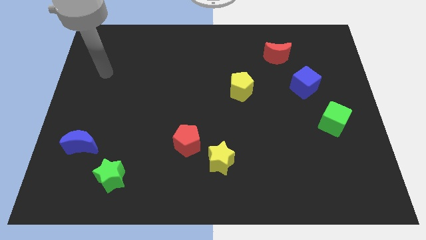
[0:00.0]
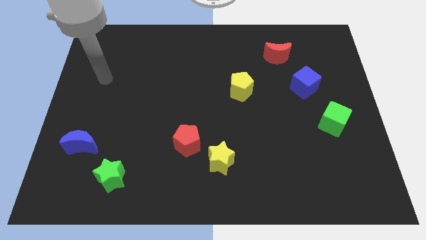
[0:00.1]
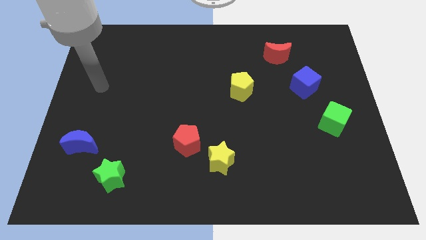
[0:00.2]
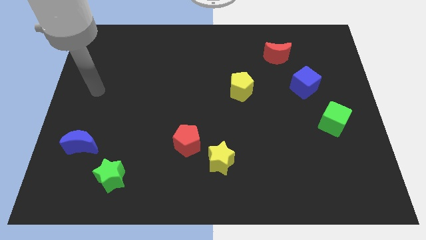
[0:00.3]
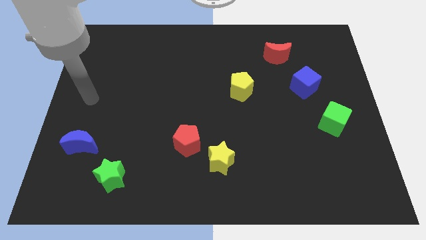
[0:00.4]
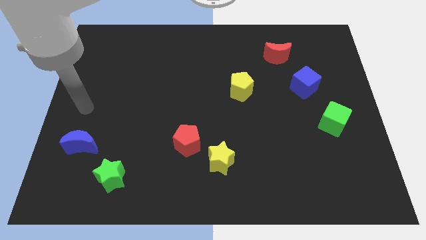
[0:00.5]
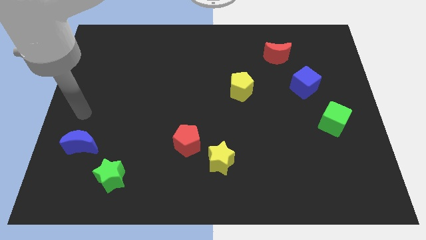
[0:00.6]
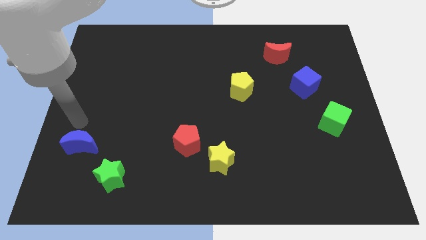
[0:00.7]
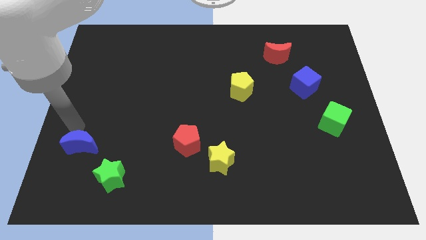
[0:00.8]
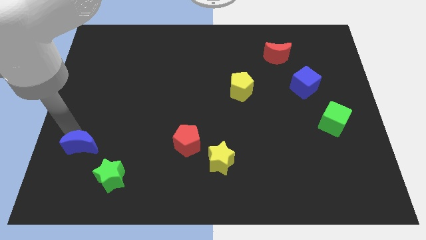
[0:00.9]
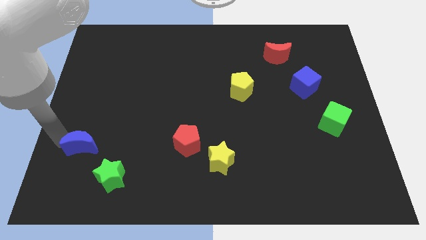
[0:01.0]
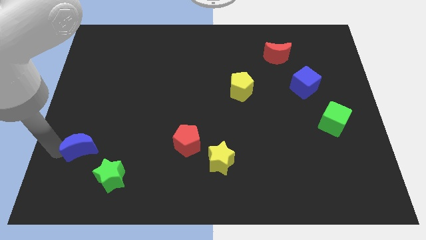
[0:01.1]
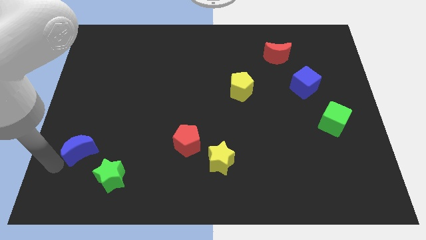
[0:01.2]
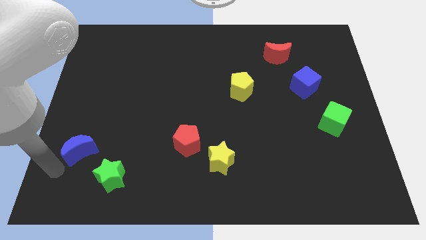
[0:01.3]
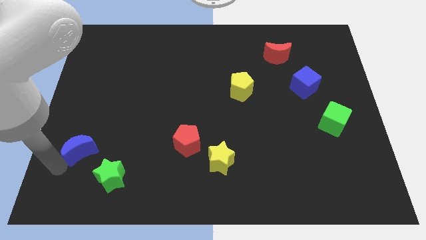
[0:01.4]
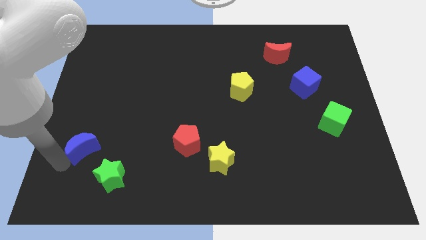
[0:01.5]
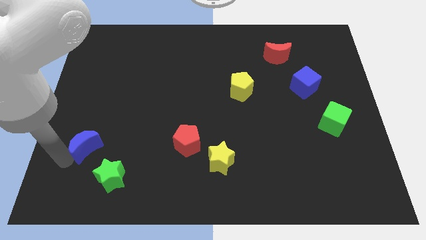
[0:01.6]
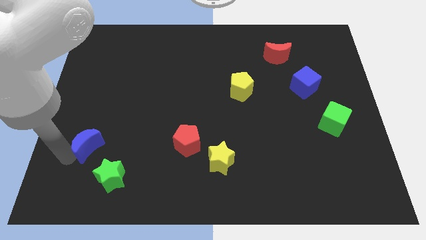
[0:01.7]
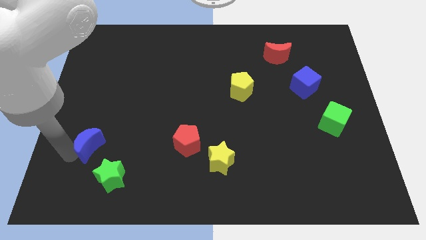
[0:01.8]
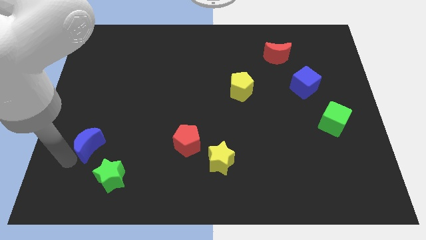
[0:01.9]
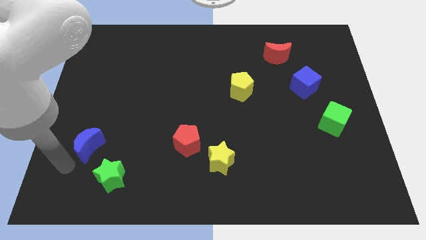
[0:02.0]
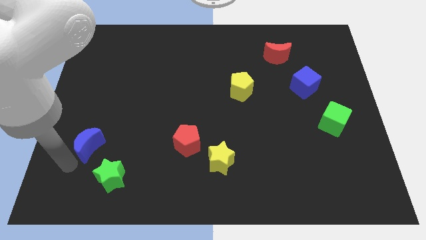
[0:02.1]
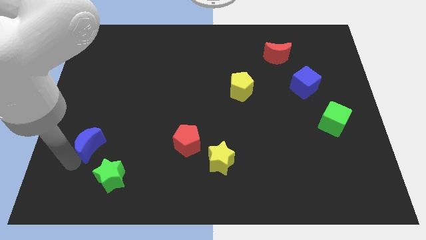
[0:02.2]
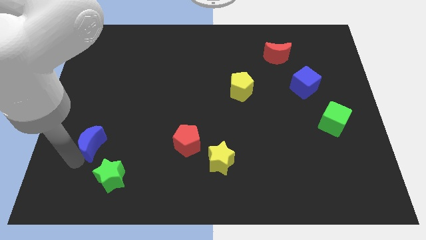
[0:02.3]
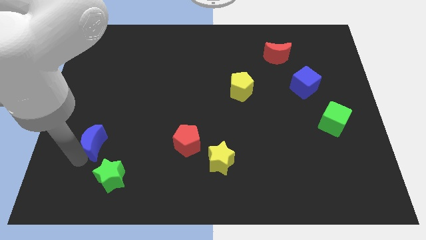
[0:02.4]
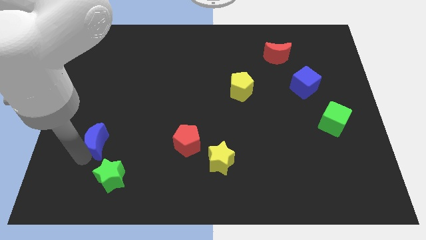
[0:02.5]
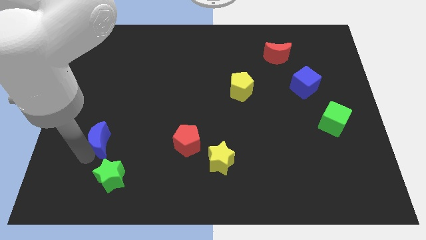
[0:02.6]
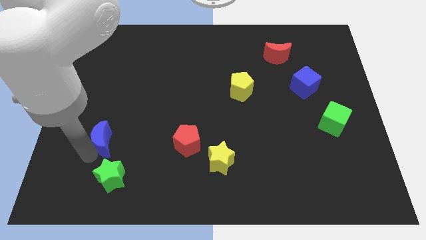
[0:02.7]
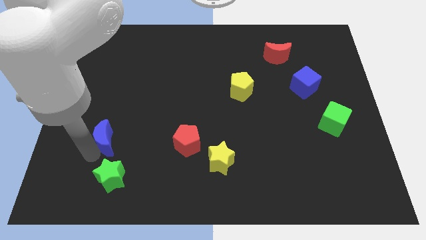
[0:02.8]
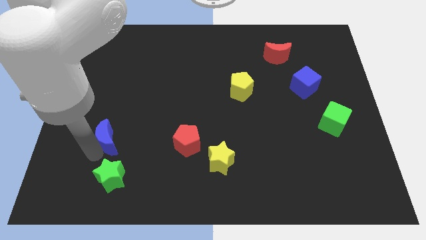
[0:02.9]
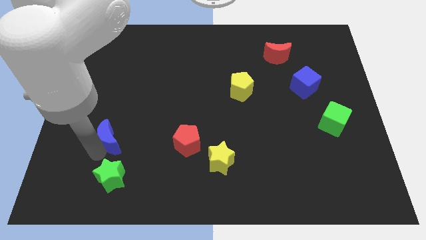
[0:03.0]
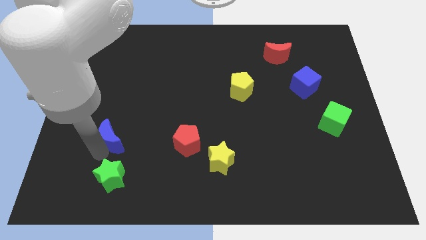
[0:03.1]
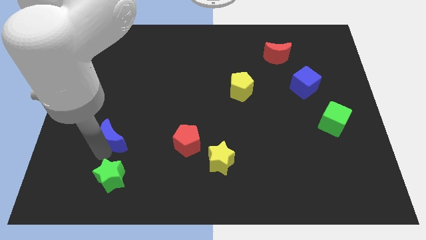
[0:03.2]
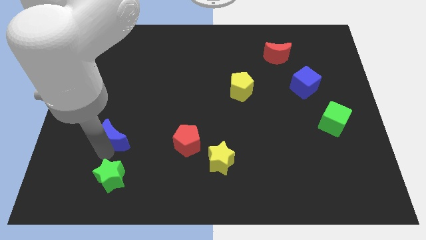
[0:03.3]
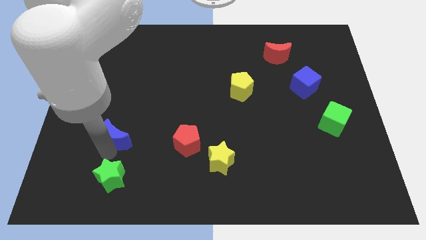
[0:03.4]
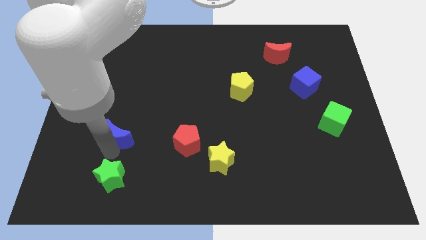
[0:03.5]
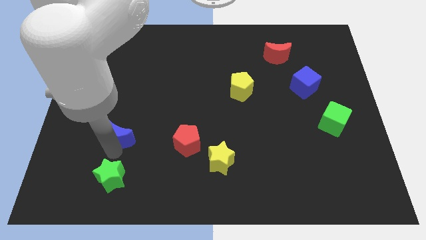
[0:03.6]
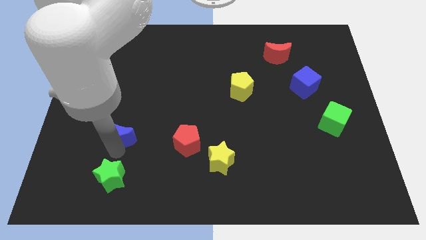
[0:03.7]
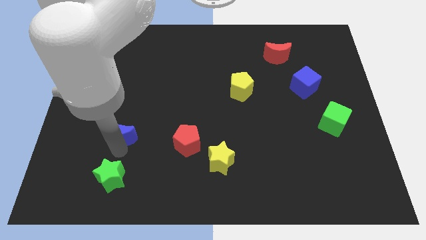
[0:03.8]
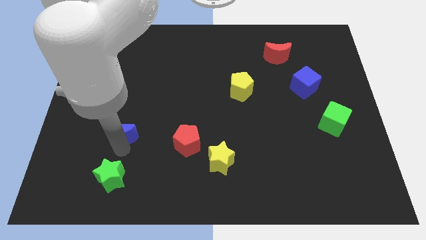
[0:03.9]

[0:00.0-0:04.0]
slide the blue moon up and then to the right somewhat

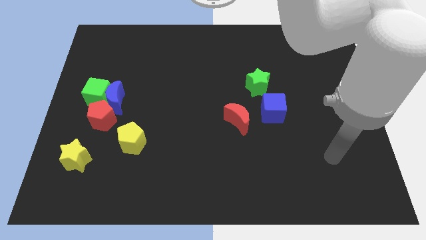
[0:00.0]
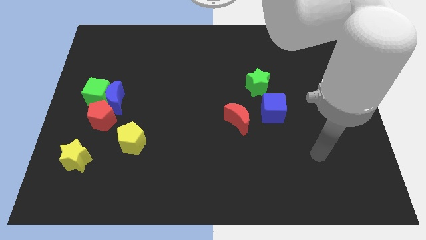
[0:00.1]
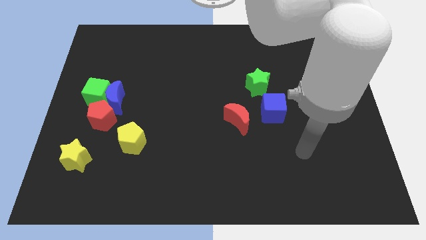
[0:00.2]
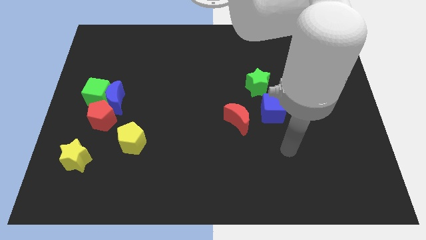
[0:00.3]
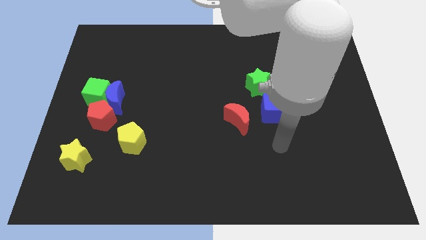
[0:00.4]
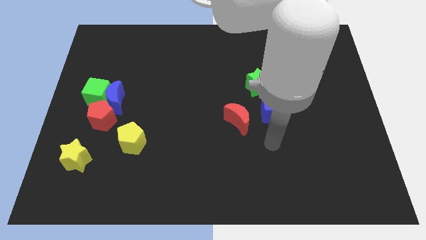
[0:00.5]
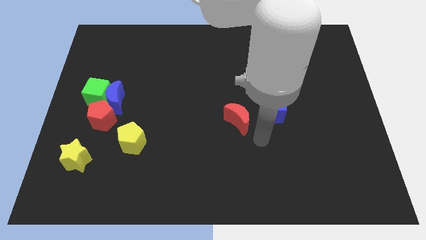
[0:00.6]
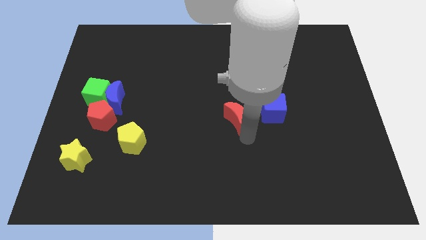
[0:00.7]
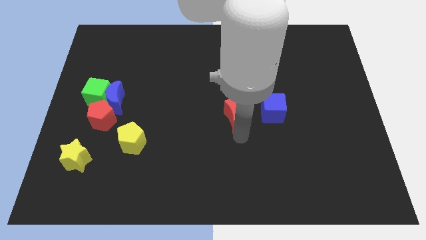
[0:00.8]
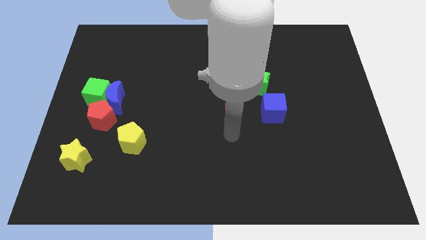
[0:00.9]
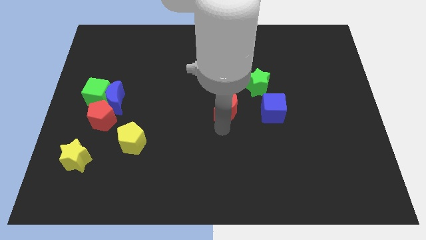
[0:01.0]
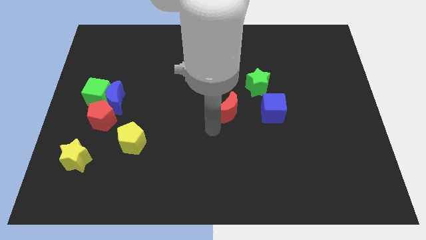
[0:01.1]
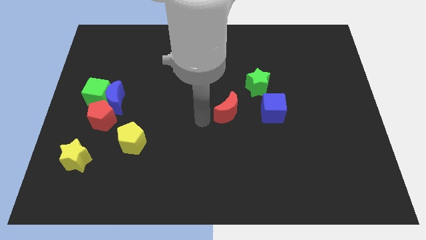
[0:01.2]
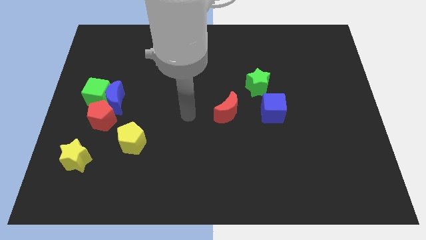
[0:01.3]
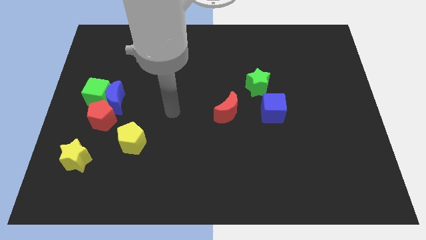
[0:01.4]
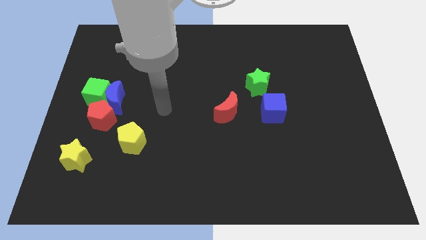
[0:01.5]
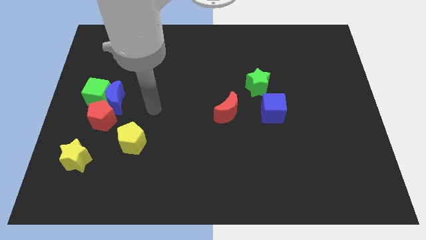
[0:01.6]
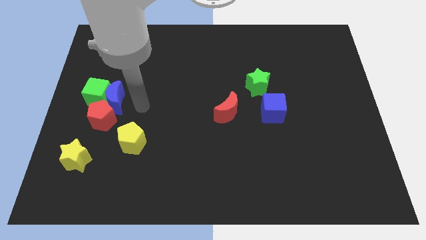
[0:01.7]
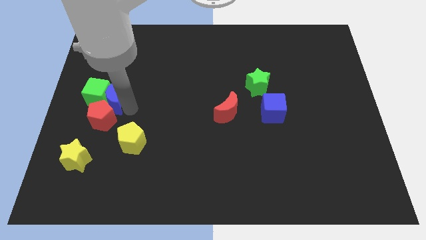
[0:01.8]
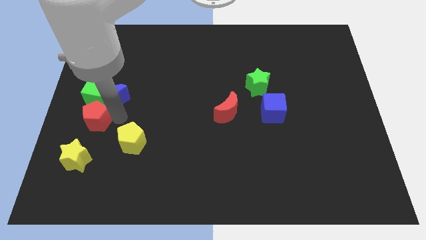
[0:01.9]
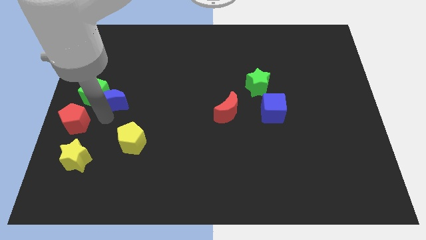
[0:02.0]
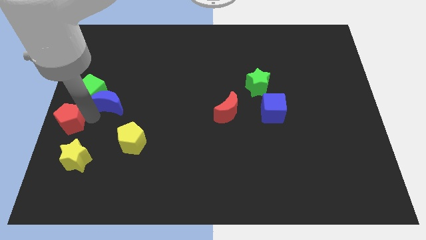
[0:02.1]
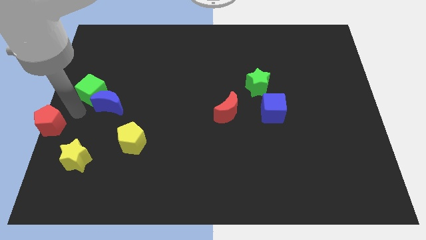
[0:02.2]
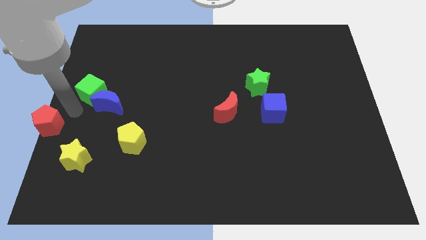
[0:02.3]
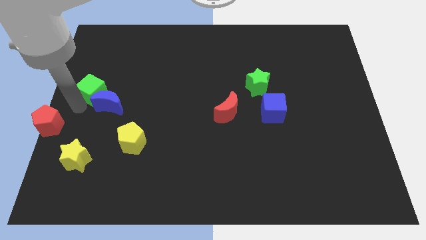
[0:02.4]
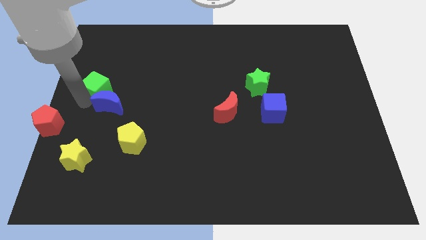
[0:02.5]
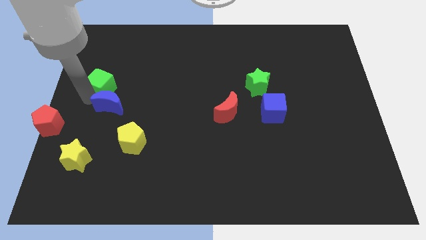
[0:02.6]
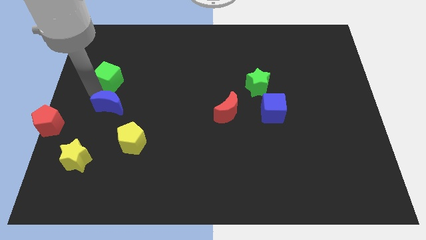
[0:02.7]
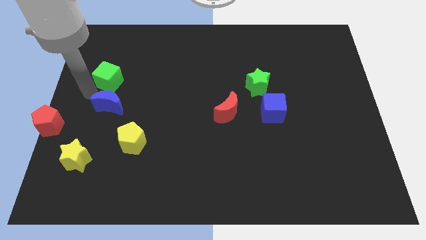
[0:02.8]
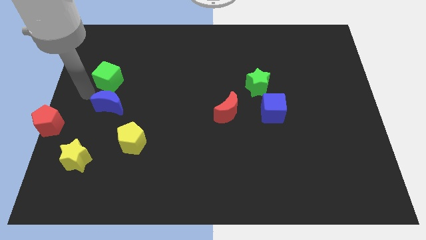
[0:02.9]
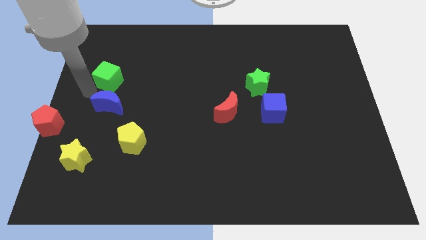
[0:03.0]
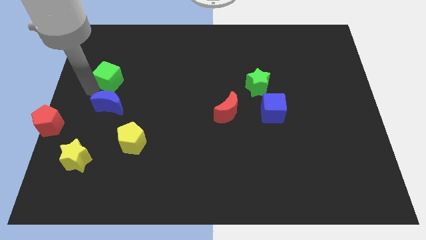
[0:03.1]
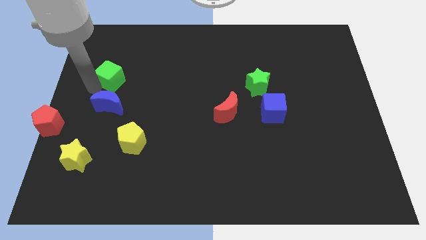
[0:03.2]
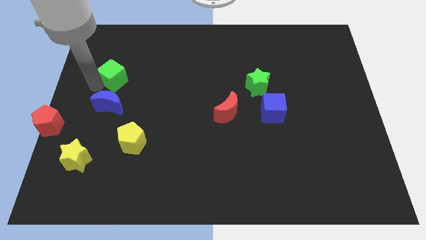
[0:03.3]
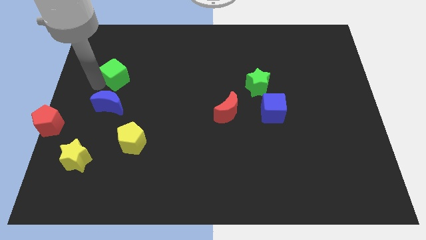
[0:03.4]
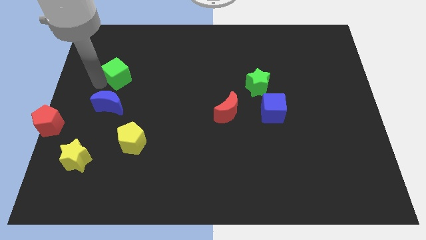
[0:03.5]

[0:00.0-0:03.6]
slightly move the green cube up and to the right diagonally

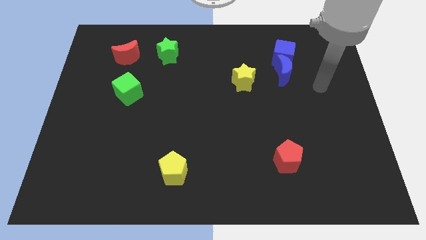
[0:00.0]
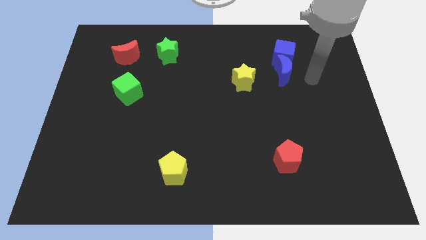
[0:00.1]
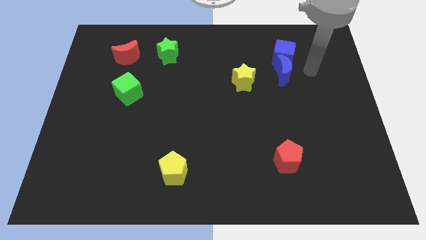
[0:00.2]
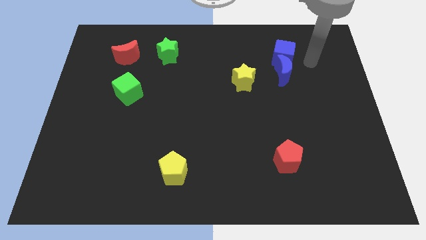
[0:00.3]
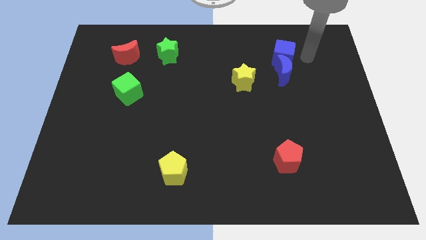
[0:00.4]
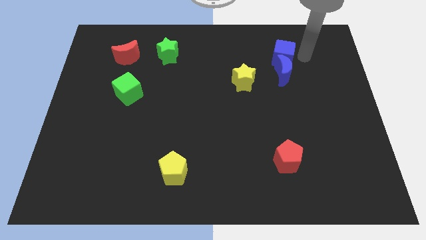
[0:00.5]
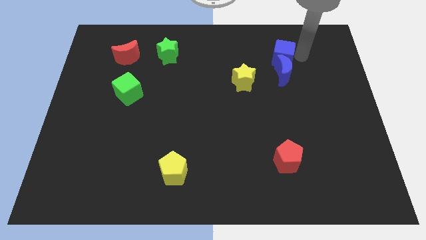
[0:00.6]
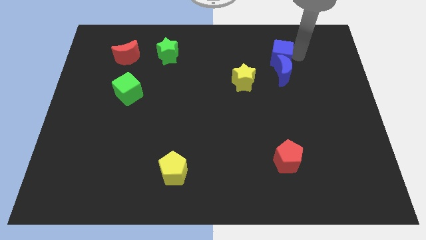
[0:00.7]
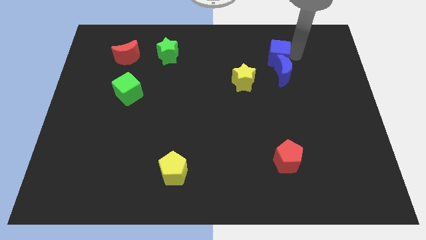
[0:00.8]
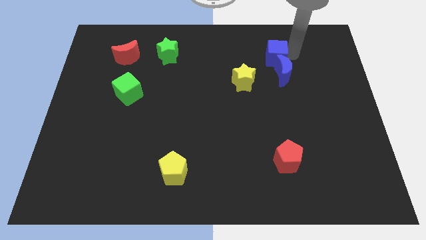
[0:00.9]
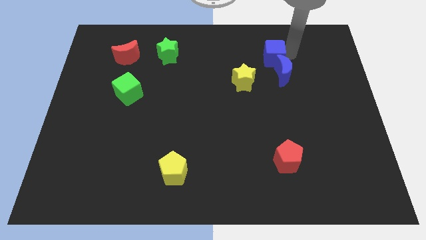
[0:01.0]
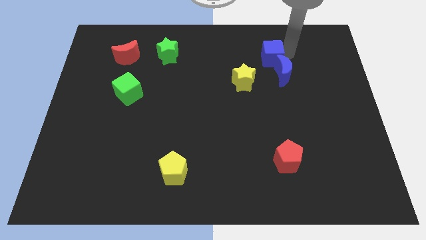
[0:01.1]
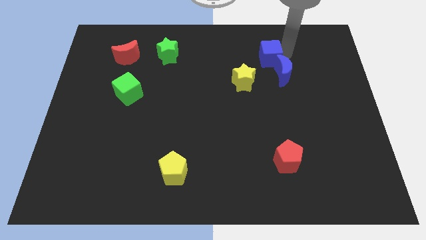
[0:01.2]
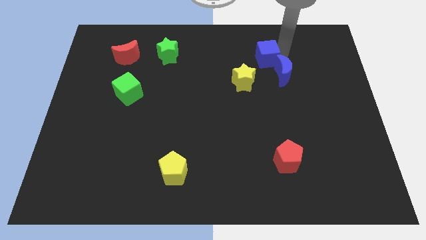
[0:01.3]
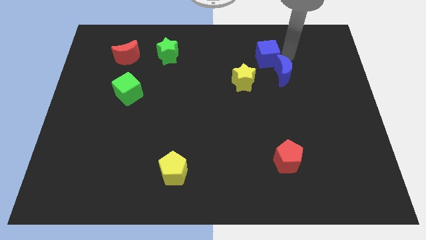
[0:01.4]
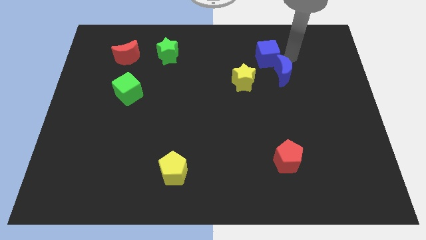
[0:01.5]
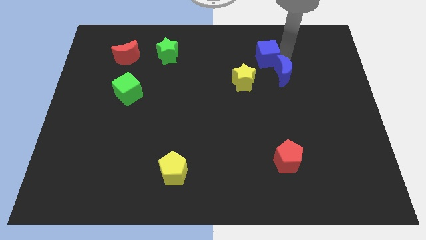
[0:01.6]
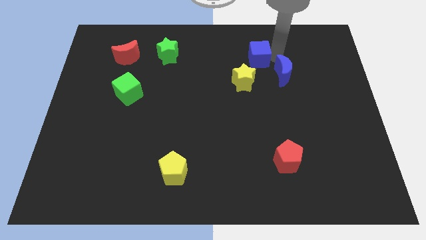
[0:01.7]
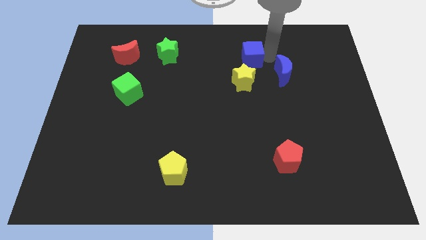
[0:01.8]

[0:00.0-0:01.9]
slightly slide the blue cube left
